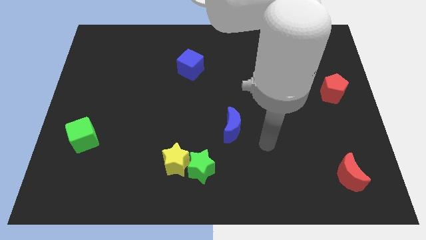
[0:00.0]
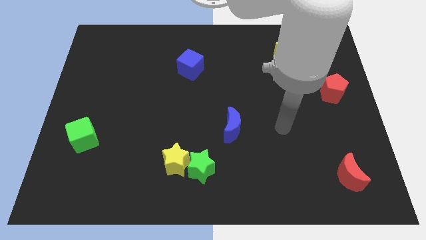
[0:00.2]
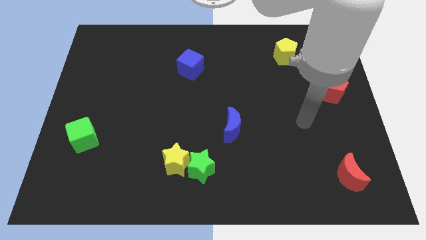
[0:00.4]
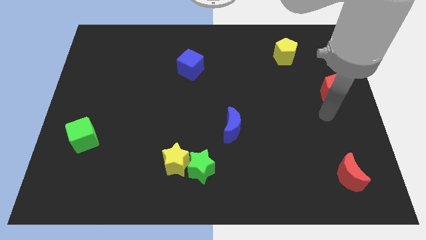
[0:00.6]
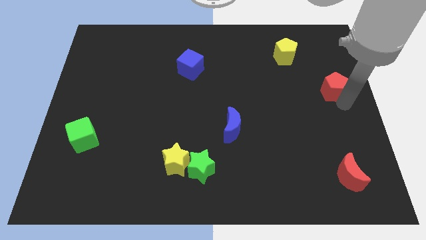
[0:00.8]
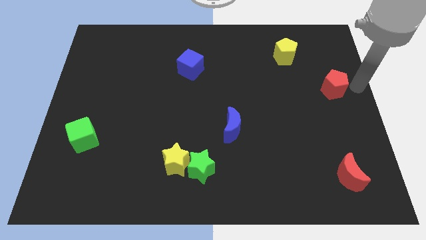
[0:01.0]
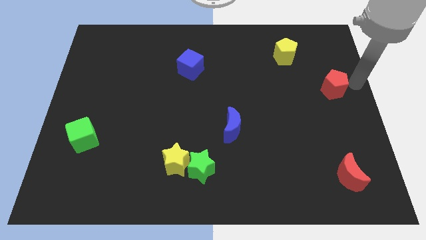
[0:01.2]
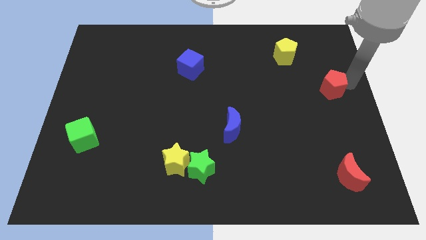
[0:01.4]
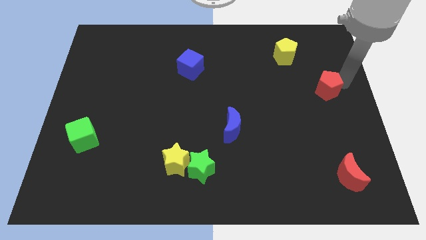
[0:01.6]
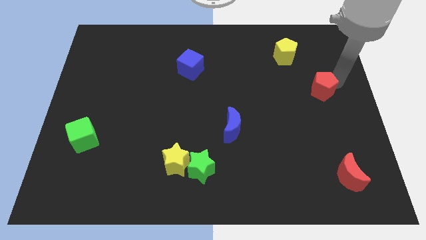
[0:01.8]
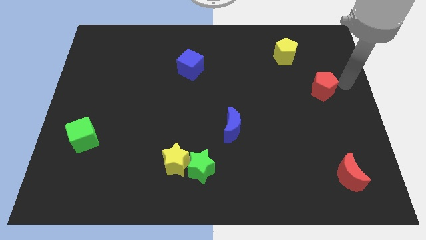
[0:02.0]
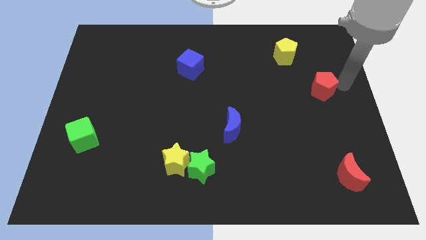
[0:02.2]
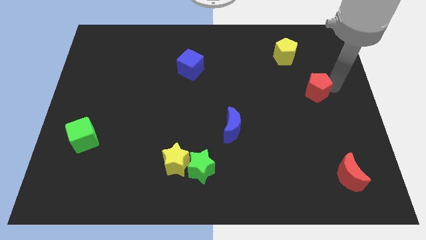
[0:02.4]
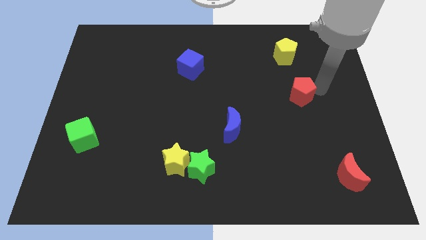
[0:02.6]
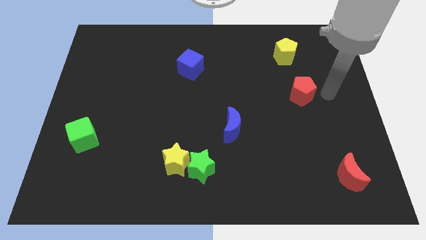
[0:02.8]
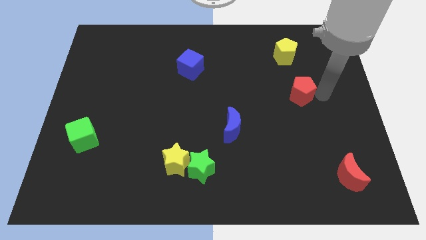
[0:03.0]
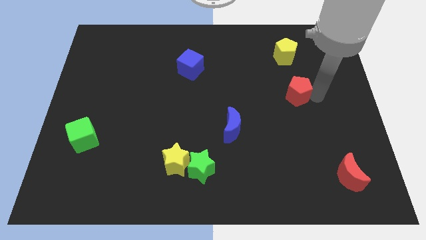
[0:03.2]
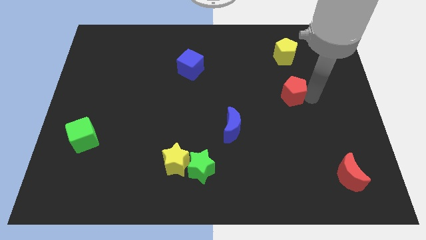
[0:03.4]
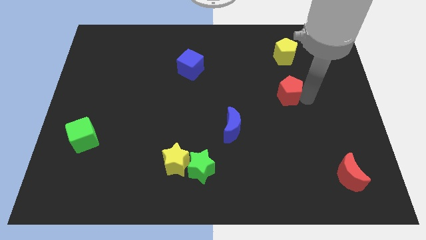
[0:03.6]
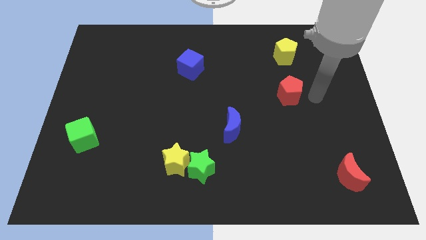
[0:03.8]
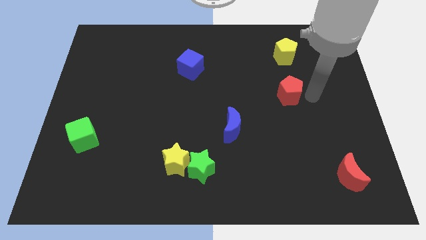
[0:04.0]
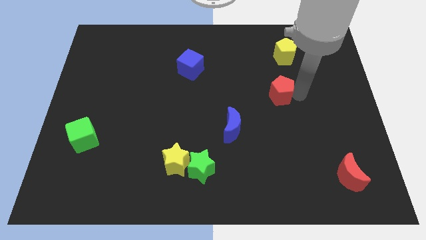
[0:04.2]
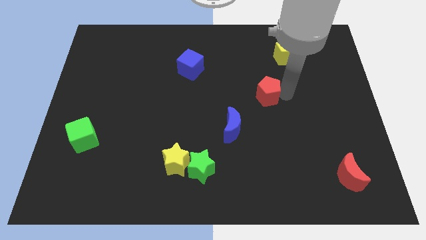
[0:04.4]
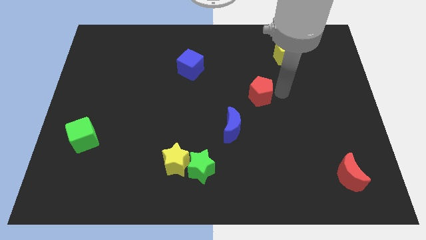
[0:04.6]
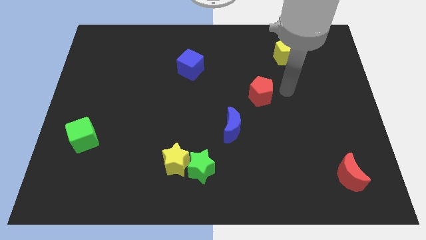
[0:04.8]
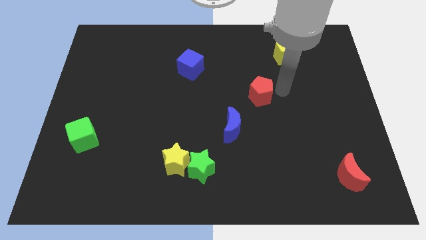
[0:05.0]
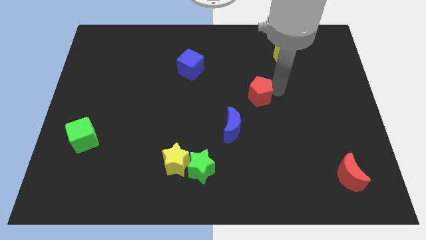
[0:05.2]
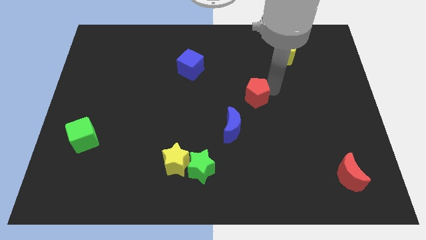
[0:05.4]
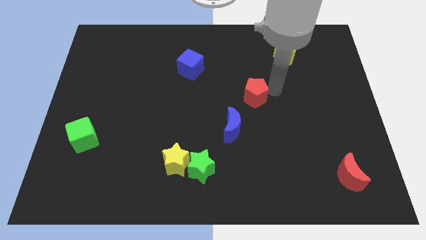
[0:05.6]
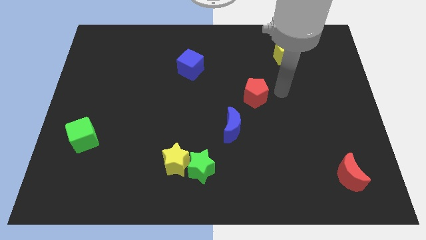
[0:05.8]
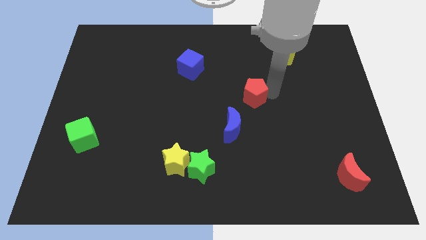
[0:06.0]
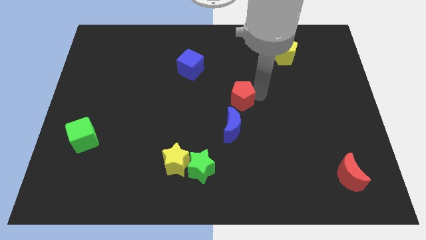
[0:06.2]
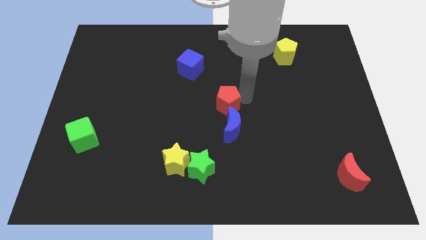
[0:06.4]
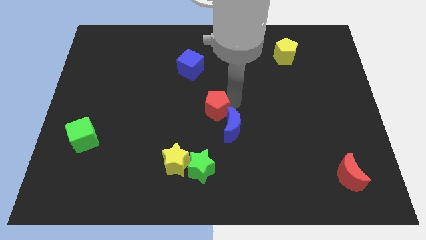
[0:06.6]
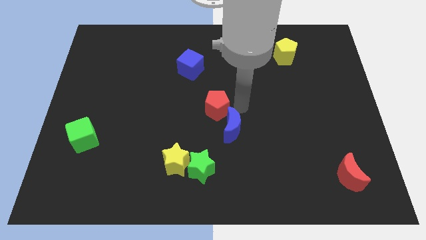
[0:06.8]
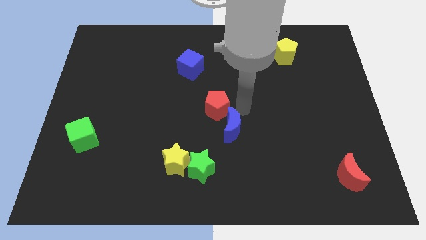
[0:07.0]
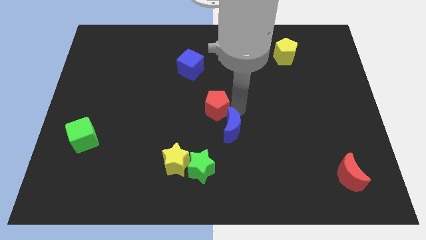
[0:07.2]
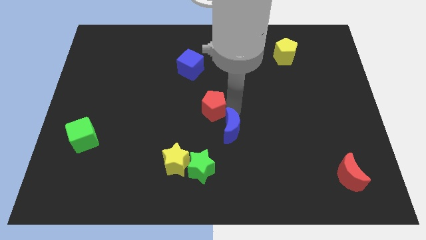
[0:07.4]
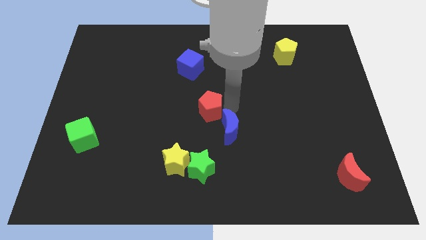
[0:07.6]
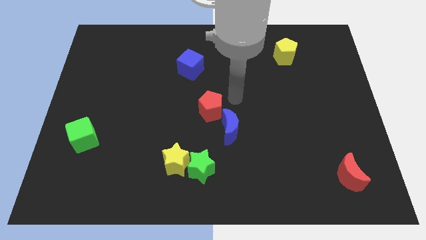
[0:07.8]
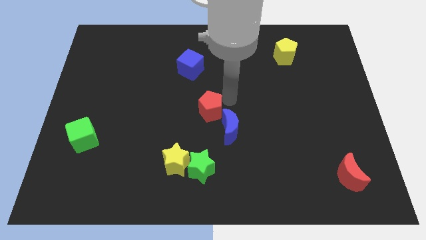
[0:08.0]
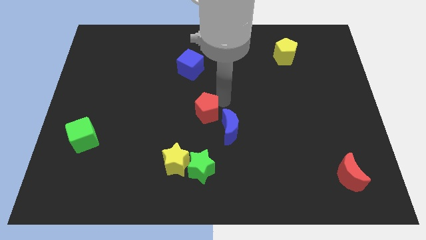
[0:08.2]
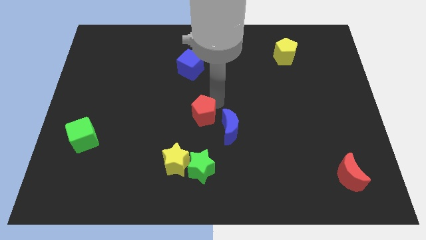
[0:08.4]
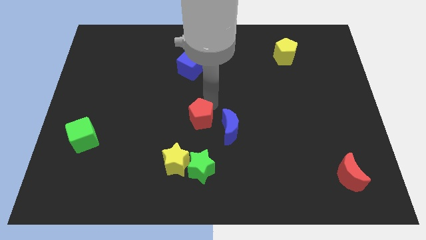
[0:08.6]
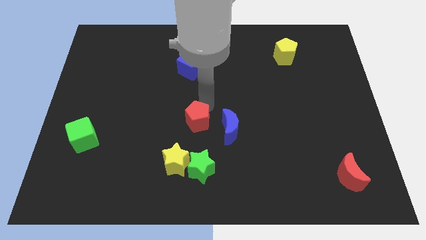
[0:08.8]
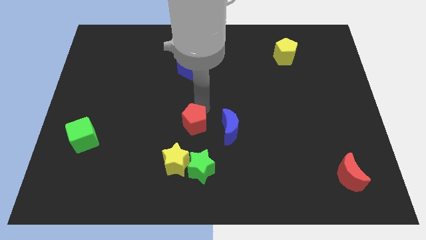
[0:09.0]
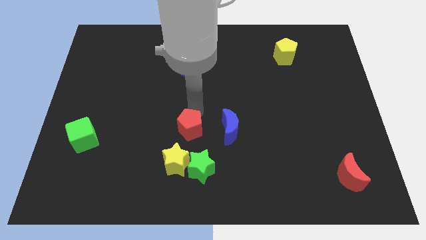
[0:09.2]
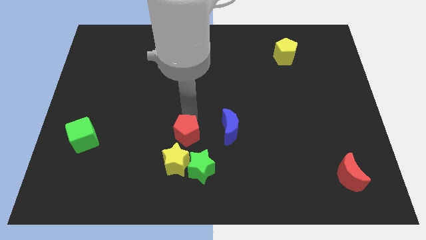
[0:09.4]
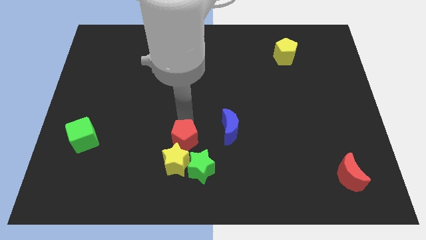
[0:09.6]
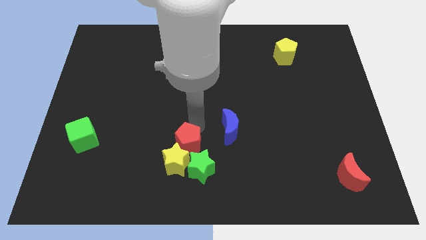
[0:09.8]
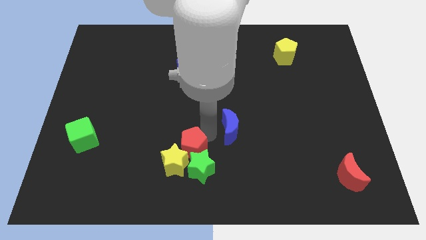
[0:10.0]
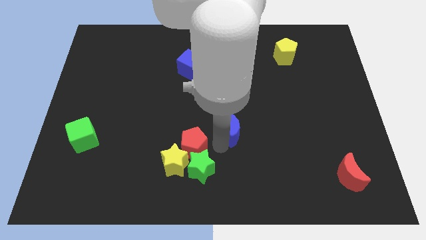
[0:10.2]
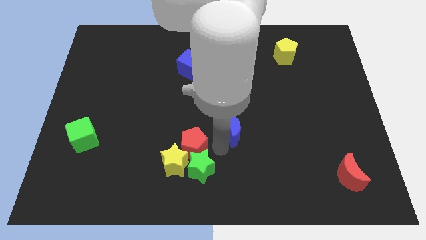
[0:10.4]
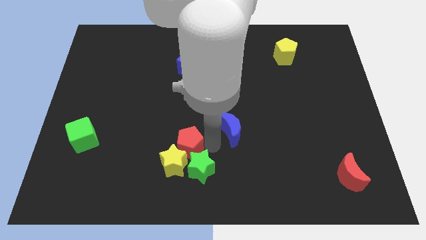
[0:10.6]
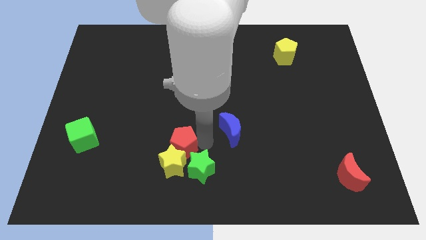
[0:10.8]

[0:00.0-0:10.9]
push the red pentagon diagonally up and to the left of the yellow star

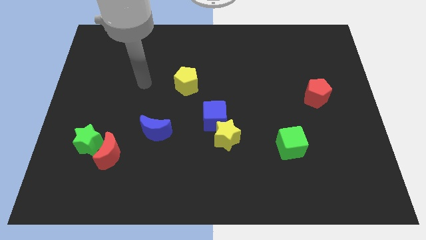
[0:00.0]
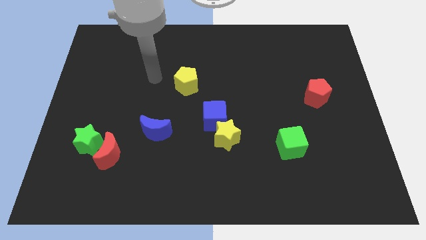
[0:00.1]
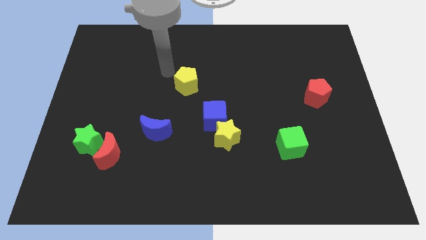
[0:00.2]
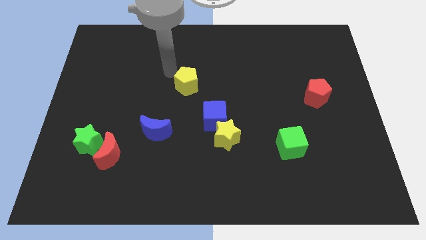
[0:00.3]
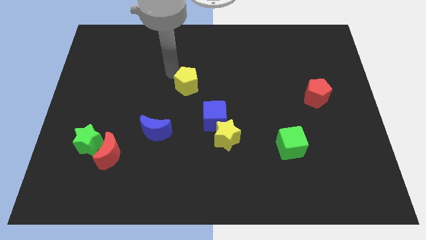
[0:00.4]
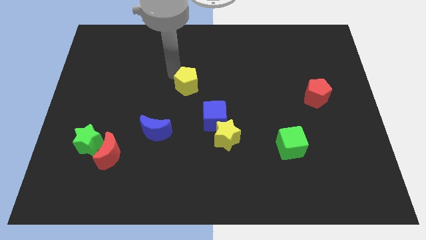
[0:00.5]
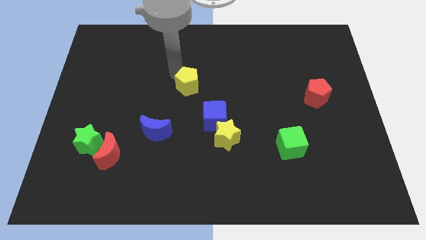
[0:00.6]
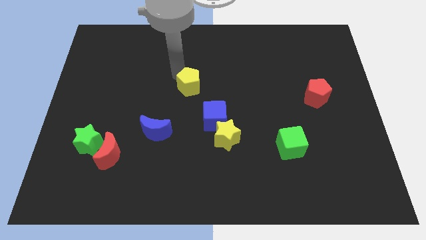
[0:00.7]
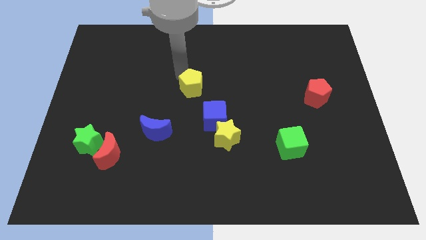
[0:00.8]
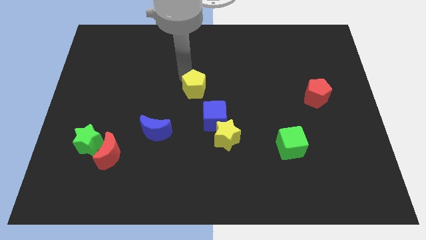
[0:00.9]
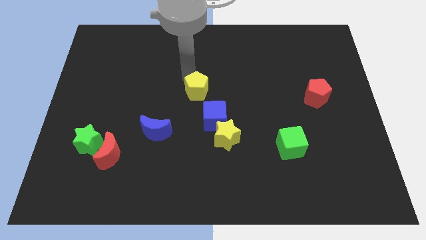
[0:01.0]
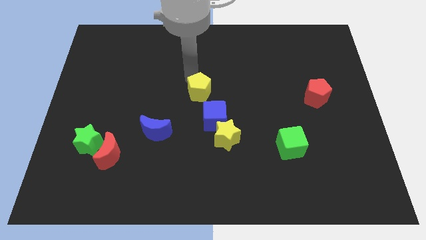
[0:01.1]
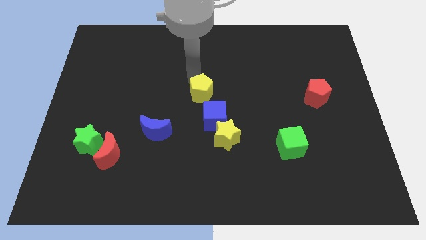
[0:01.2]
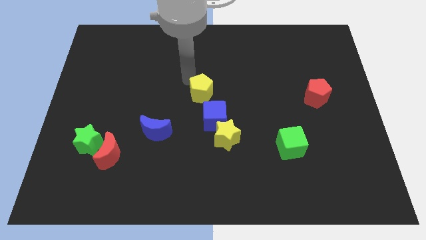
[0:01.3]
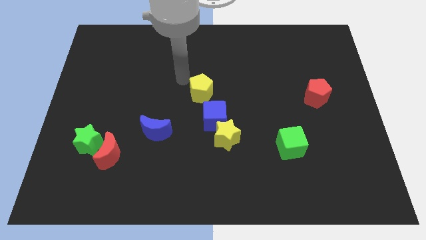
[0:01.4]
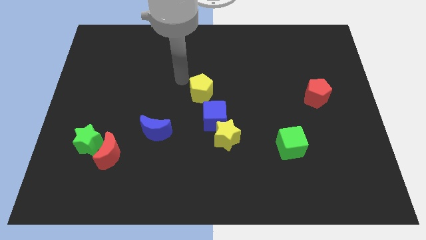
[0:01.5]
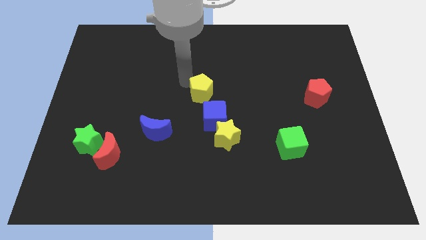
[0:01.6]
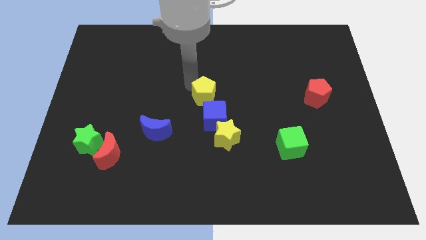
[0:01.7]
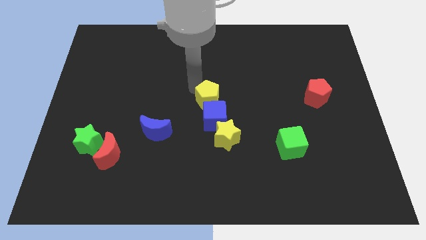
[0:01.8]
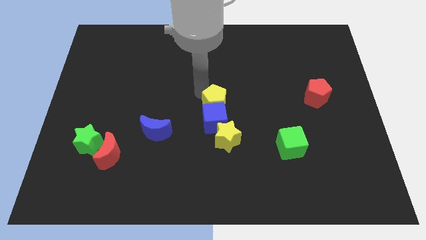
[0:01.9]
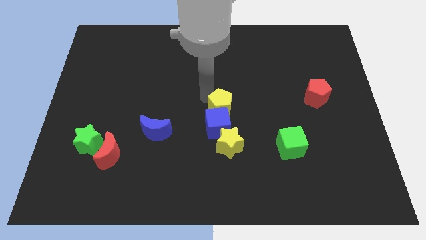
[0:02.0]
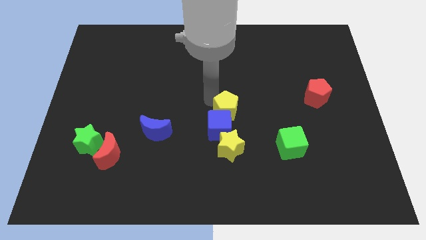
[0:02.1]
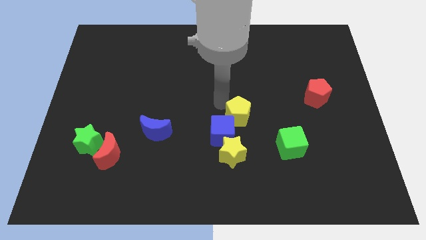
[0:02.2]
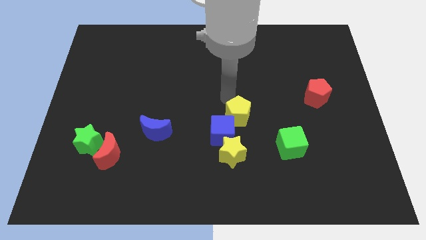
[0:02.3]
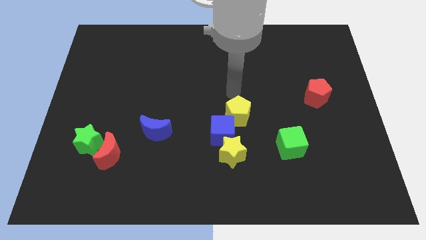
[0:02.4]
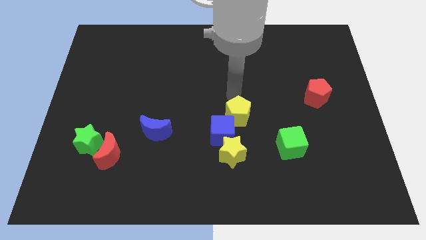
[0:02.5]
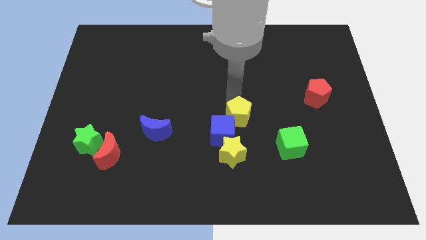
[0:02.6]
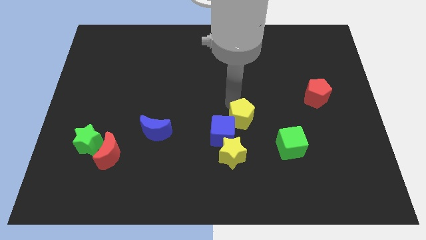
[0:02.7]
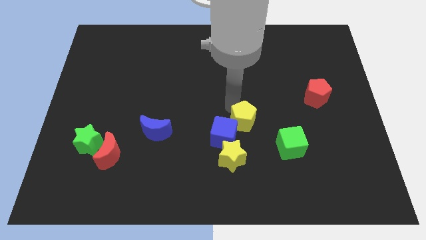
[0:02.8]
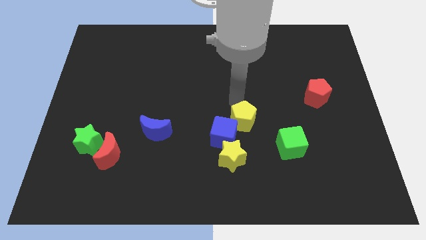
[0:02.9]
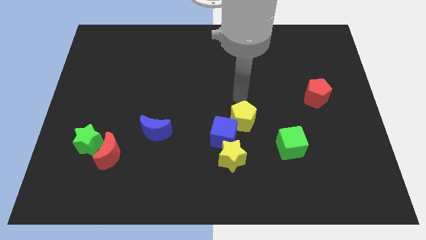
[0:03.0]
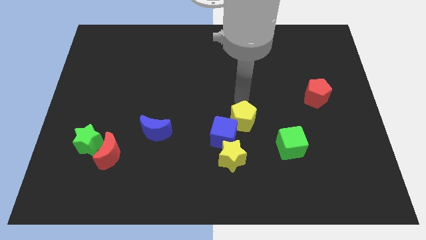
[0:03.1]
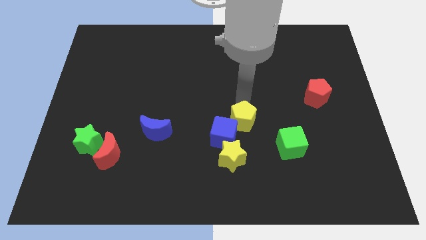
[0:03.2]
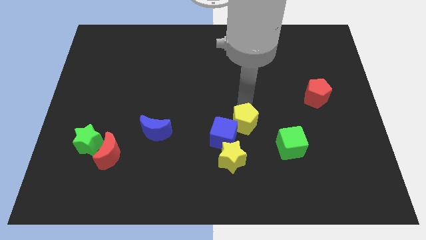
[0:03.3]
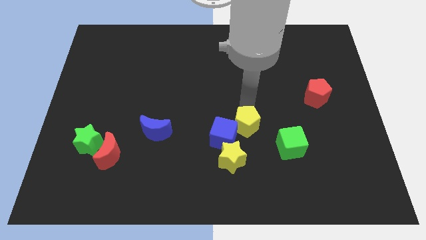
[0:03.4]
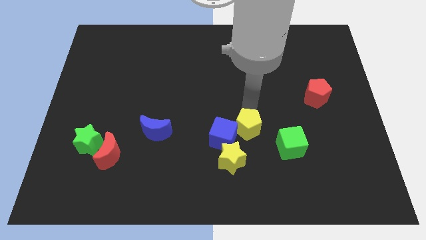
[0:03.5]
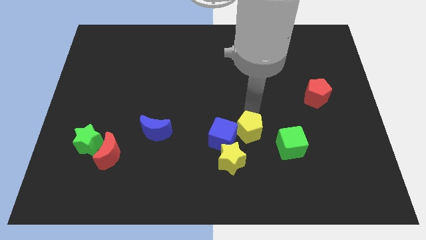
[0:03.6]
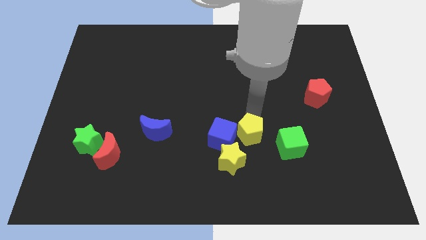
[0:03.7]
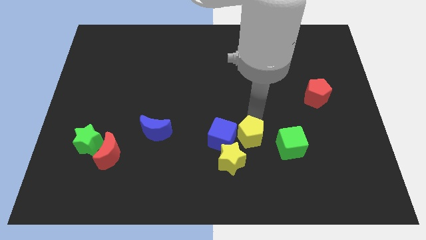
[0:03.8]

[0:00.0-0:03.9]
slide the yellow pentagon diagonally down and to the right of the blue cube
